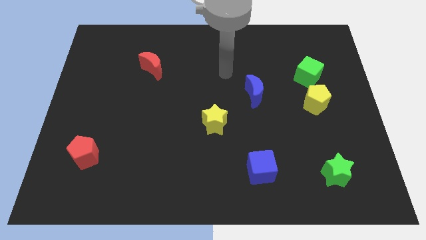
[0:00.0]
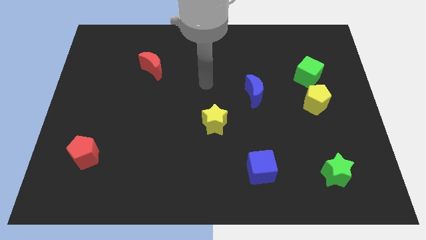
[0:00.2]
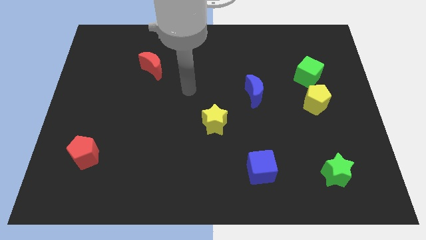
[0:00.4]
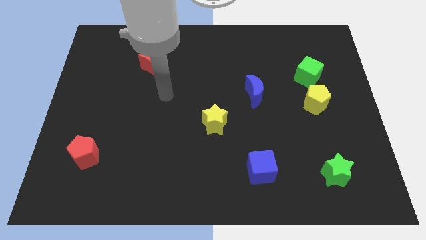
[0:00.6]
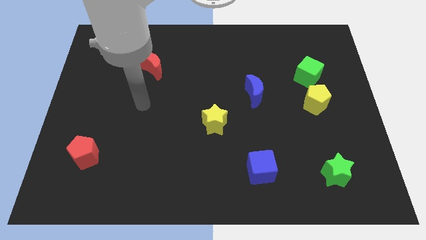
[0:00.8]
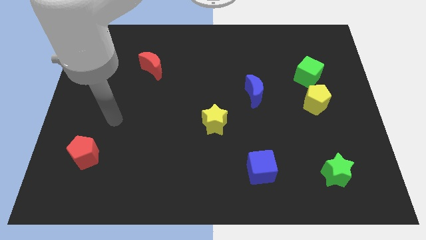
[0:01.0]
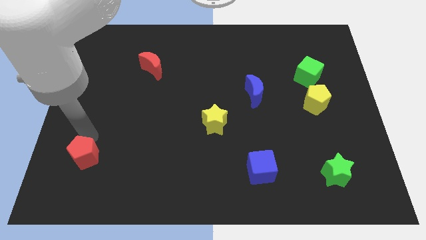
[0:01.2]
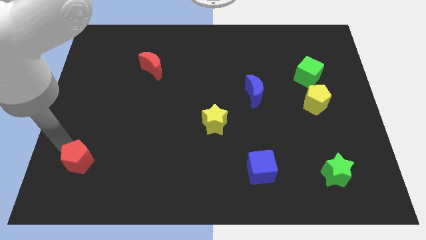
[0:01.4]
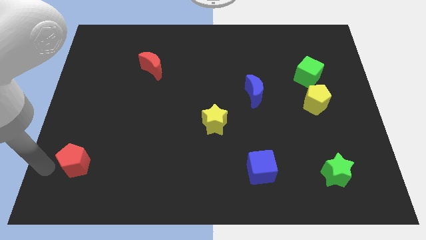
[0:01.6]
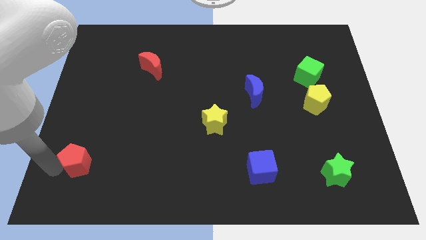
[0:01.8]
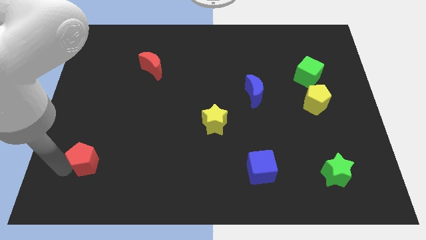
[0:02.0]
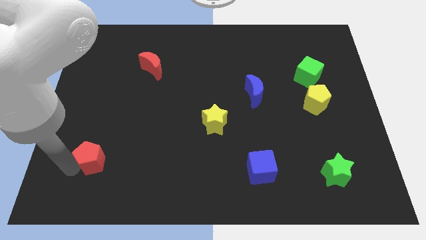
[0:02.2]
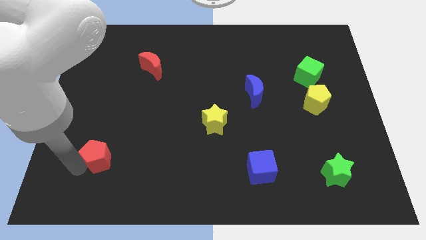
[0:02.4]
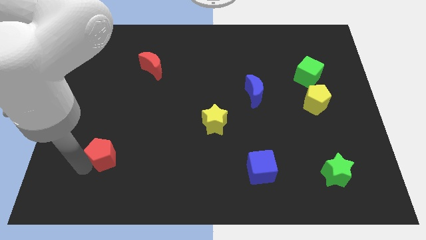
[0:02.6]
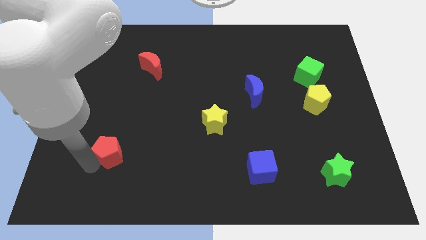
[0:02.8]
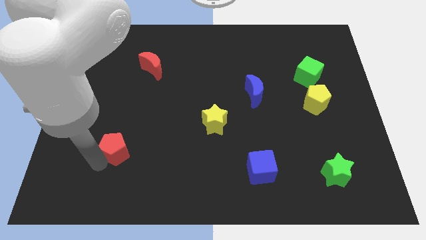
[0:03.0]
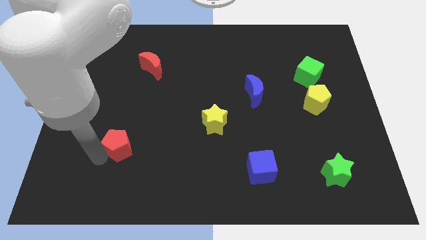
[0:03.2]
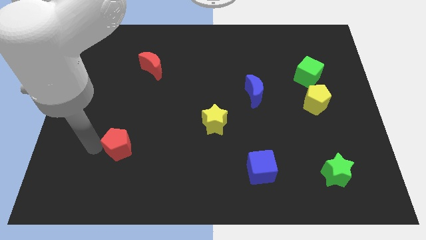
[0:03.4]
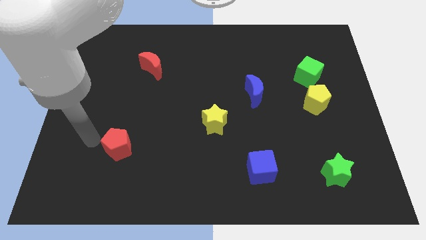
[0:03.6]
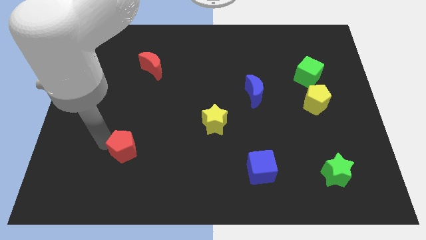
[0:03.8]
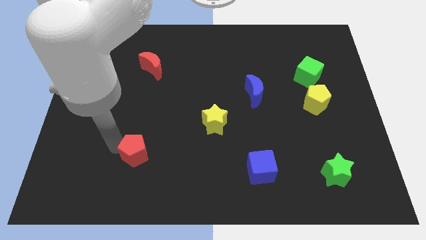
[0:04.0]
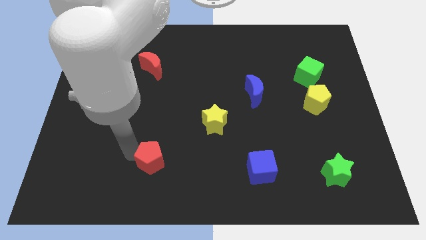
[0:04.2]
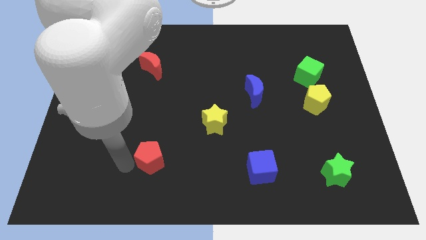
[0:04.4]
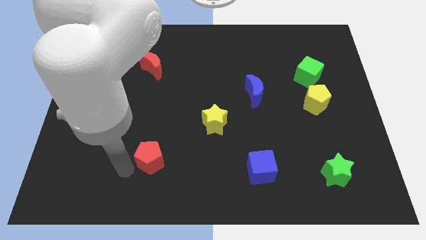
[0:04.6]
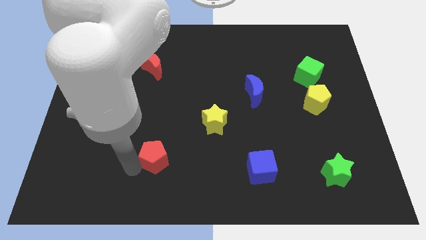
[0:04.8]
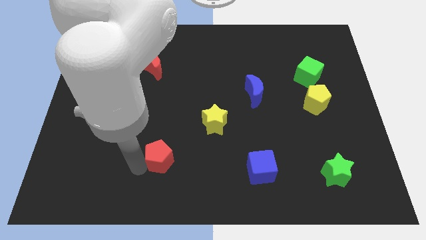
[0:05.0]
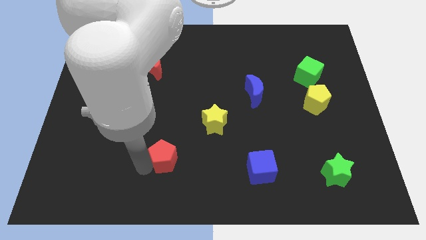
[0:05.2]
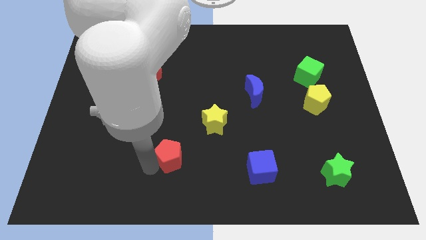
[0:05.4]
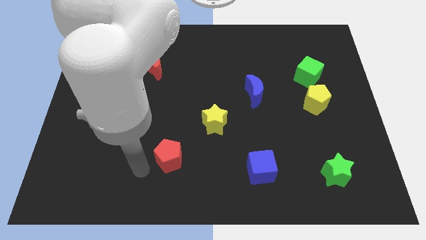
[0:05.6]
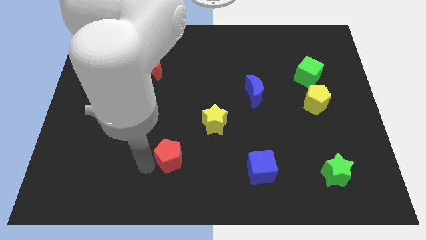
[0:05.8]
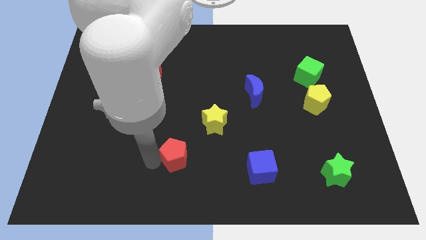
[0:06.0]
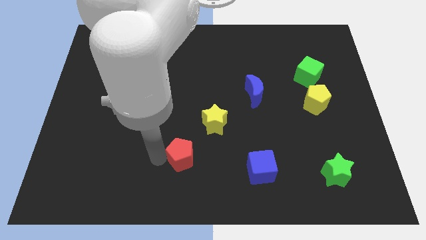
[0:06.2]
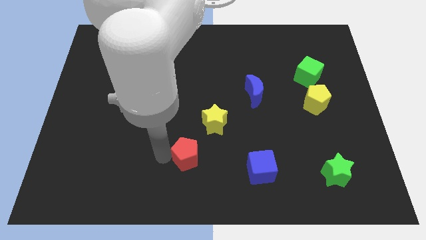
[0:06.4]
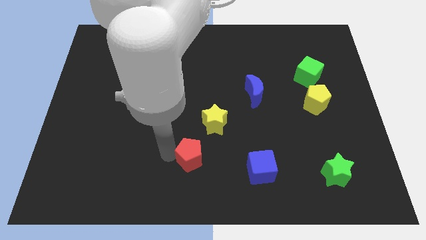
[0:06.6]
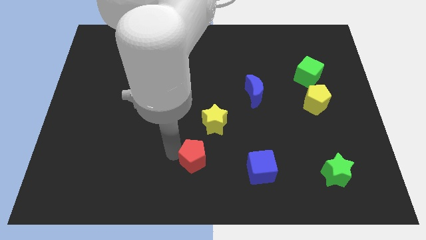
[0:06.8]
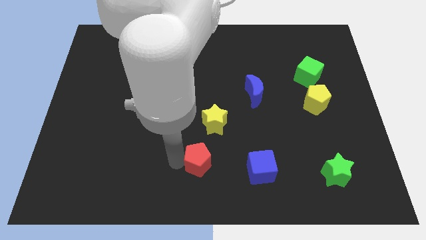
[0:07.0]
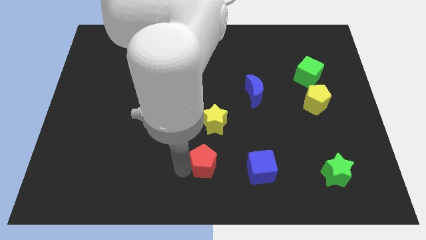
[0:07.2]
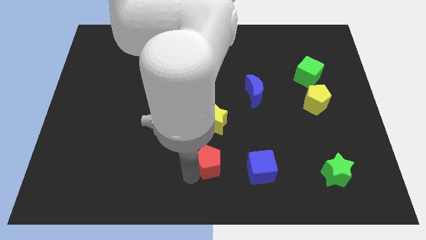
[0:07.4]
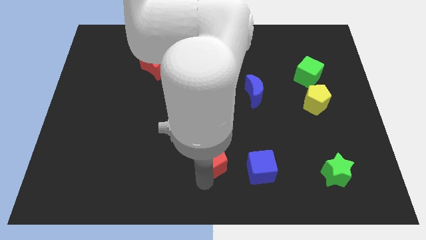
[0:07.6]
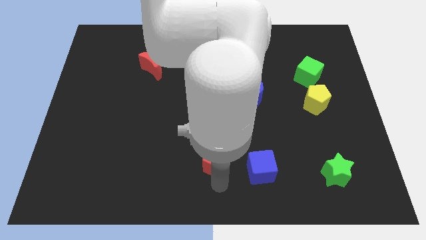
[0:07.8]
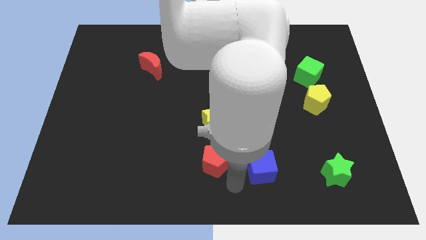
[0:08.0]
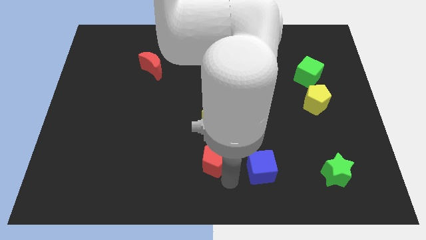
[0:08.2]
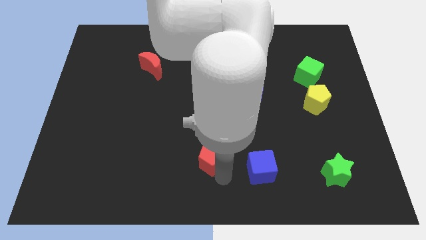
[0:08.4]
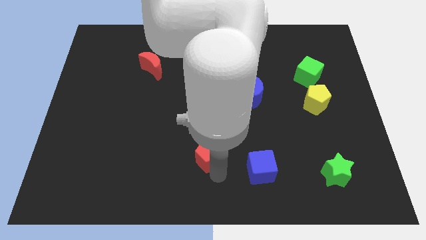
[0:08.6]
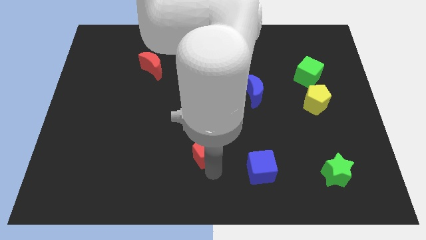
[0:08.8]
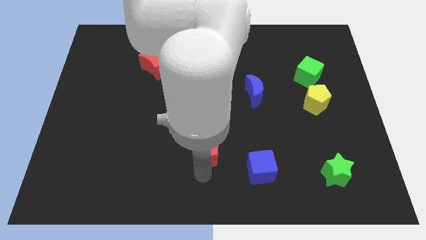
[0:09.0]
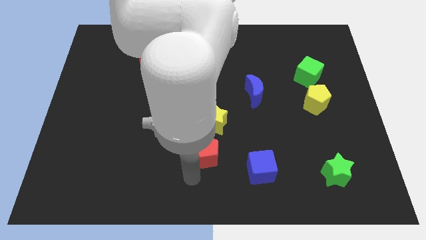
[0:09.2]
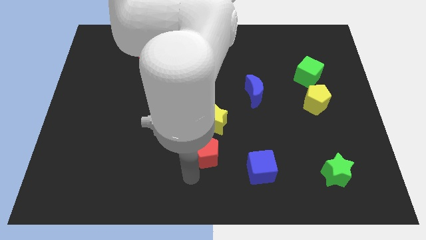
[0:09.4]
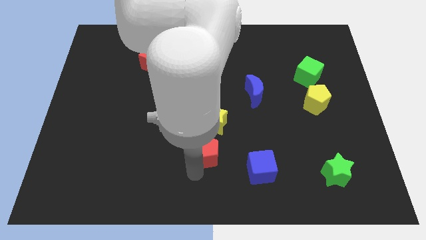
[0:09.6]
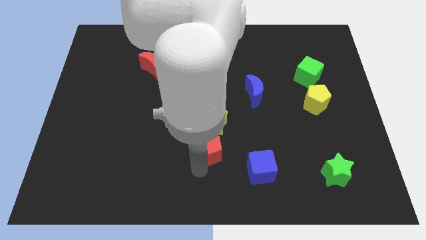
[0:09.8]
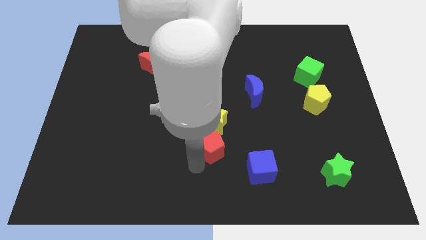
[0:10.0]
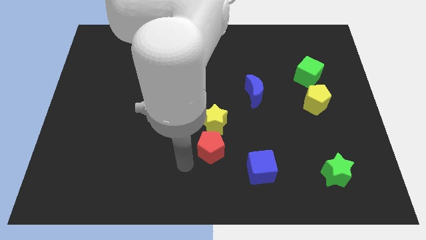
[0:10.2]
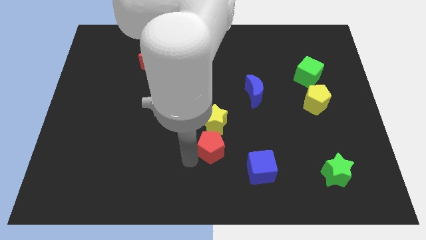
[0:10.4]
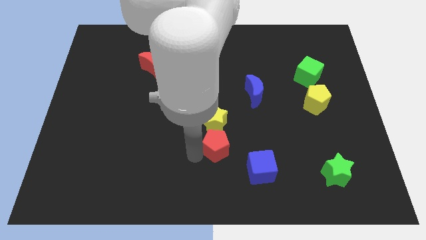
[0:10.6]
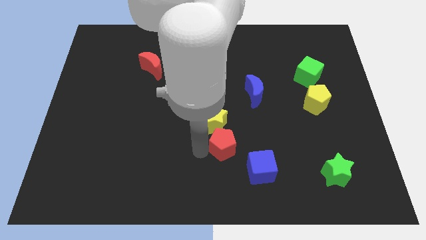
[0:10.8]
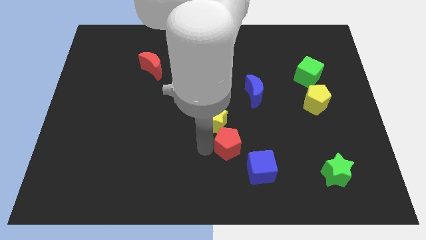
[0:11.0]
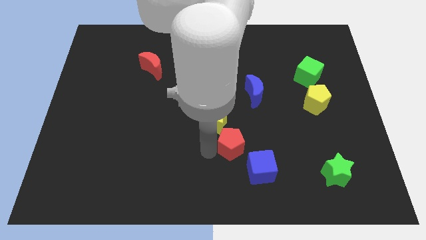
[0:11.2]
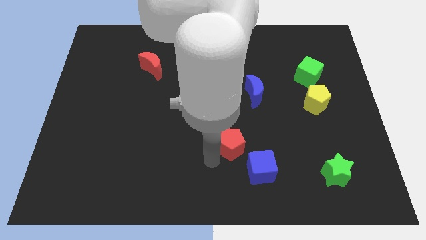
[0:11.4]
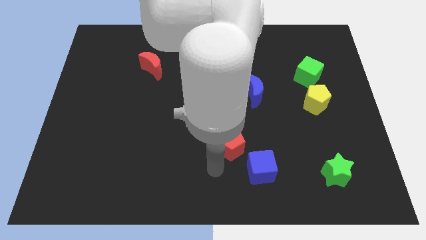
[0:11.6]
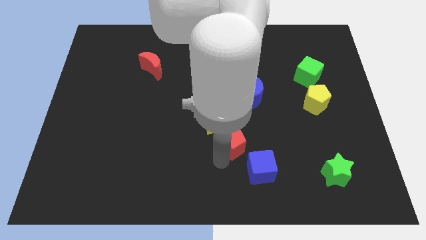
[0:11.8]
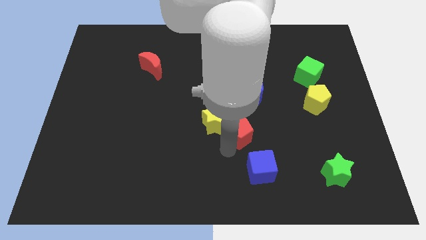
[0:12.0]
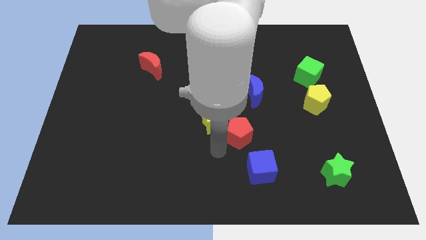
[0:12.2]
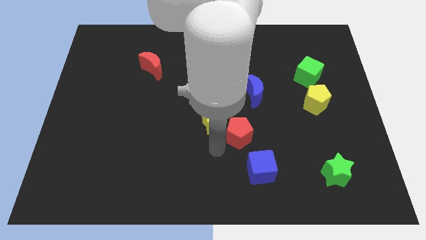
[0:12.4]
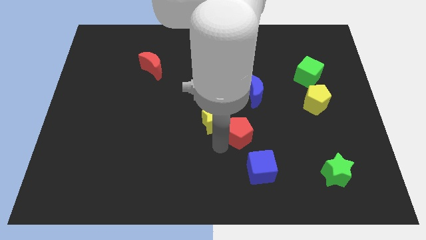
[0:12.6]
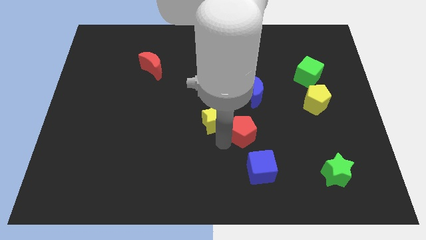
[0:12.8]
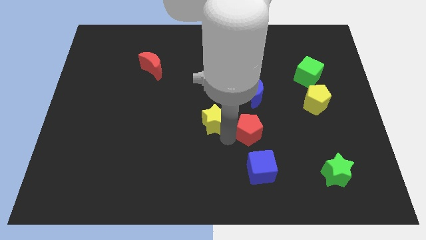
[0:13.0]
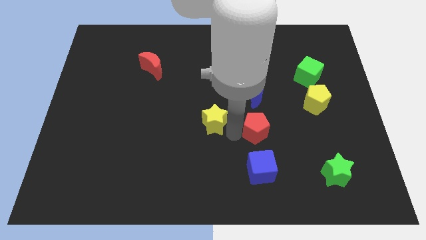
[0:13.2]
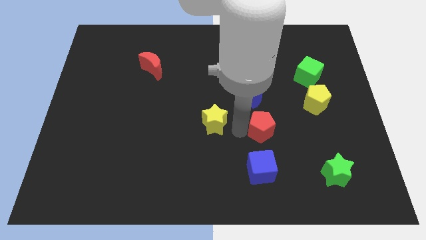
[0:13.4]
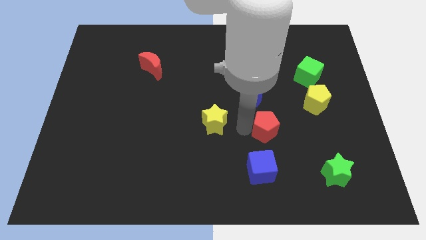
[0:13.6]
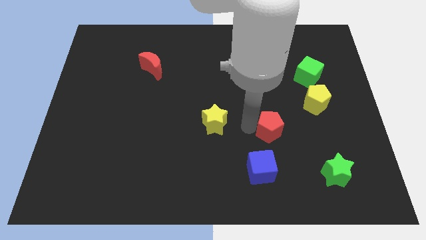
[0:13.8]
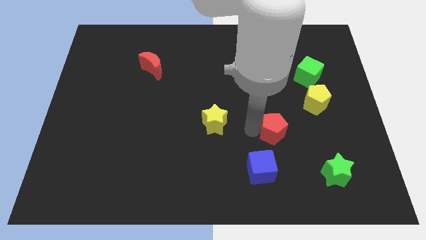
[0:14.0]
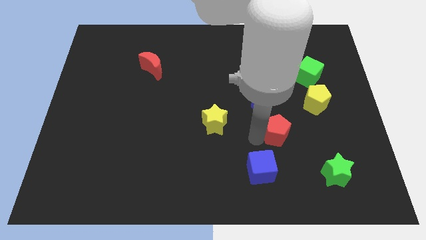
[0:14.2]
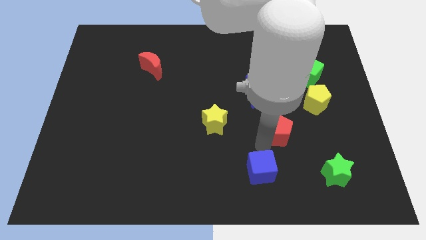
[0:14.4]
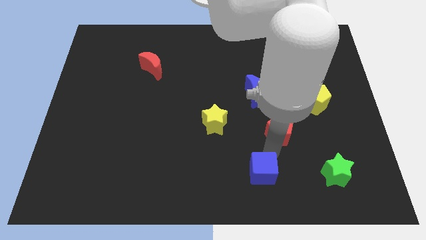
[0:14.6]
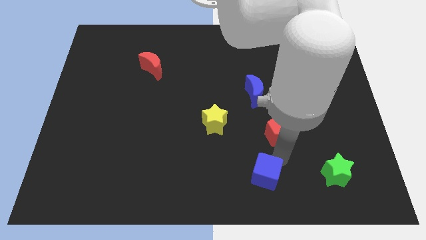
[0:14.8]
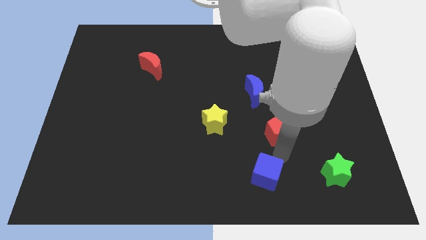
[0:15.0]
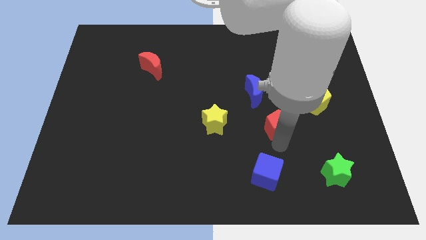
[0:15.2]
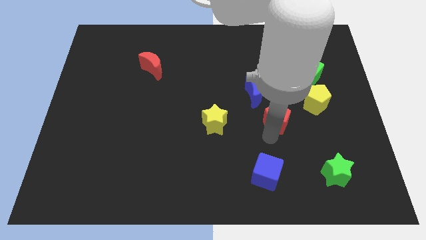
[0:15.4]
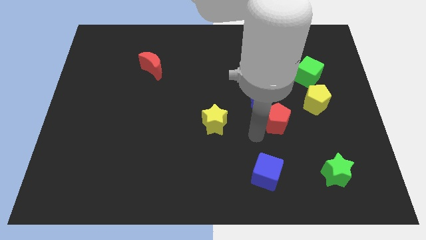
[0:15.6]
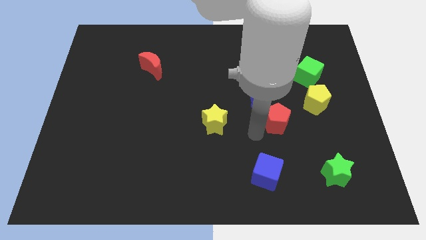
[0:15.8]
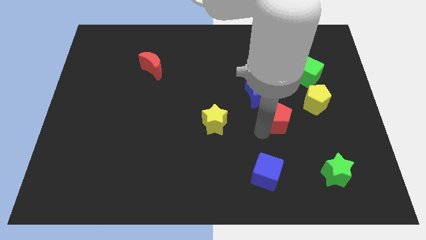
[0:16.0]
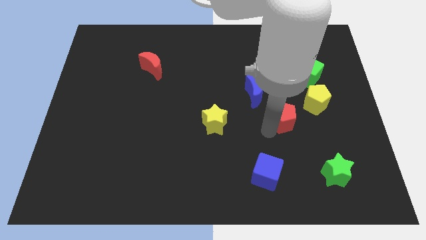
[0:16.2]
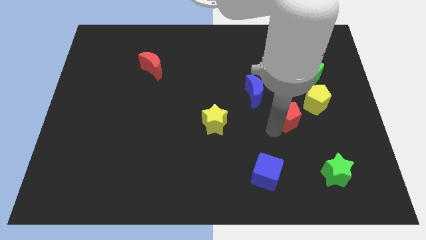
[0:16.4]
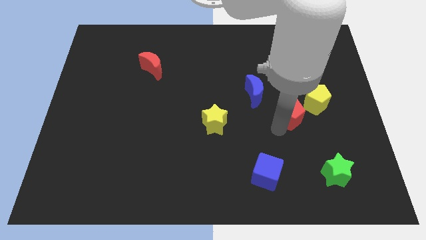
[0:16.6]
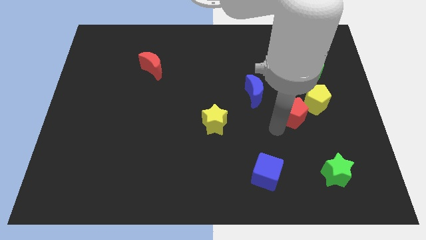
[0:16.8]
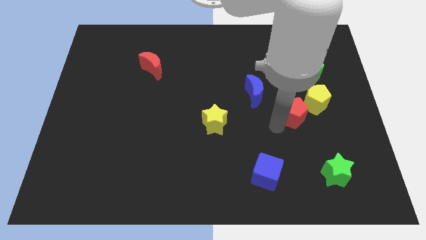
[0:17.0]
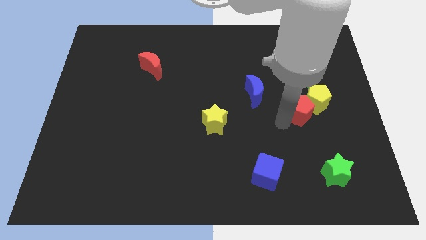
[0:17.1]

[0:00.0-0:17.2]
slide the red pentagon close to the yellow pentagon
